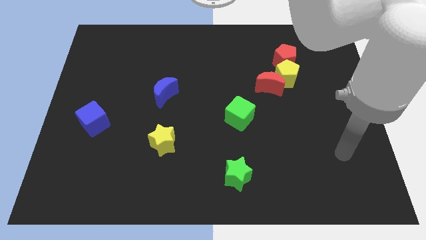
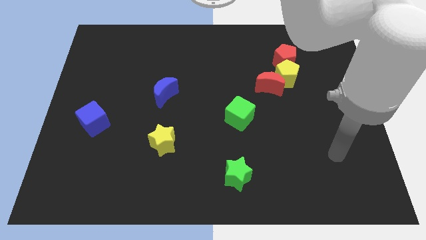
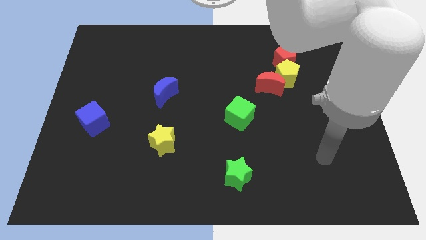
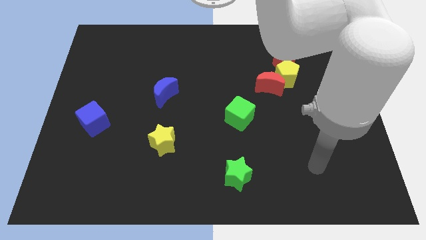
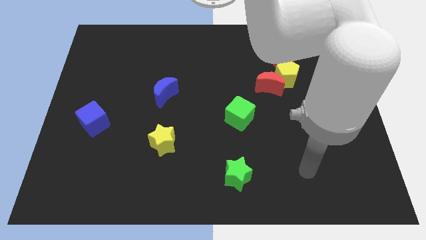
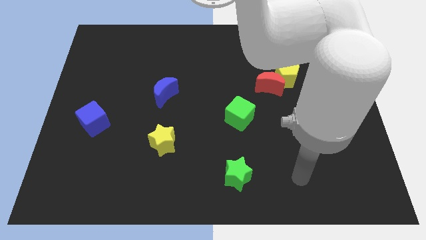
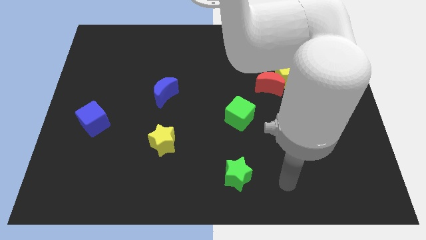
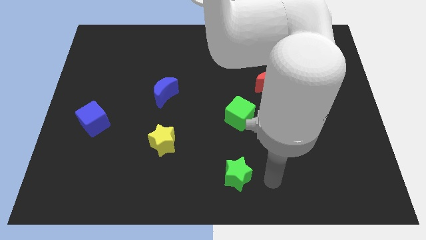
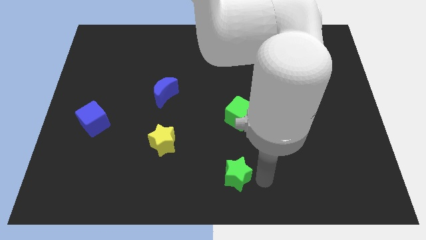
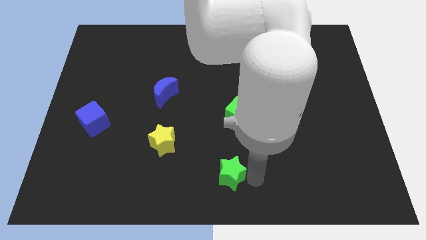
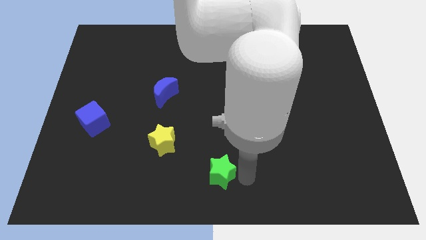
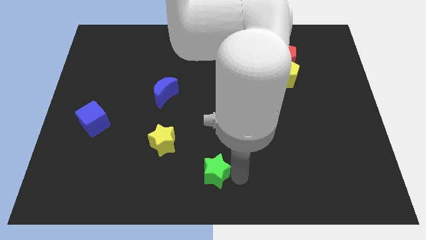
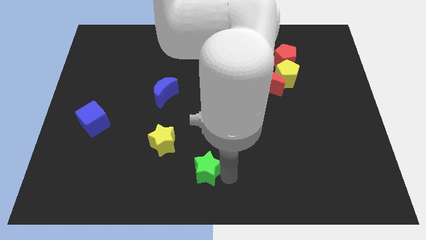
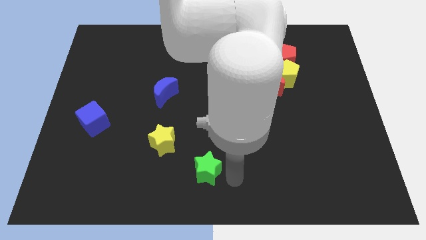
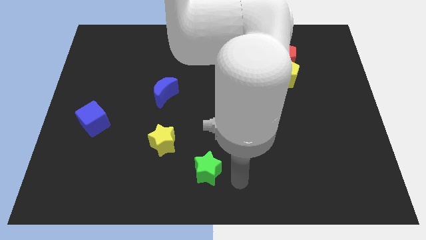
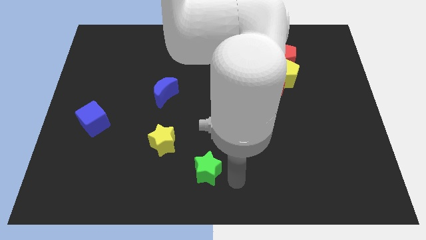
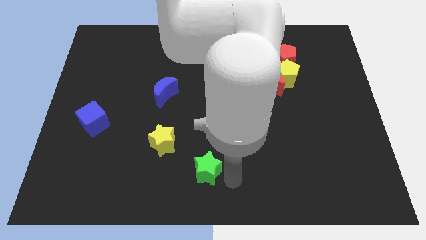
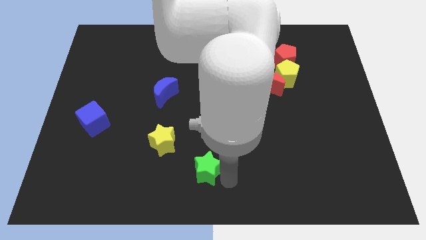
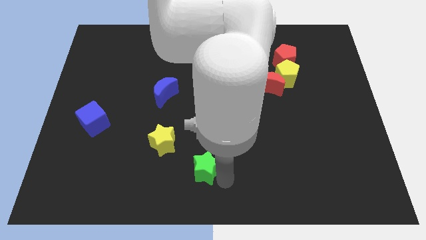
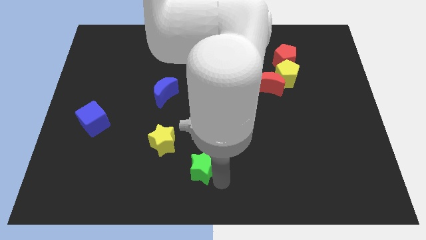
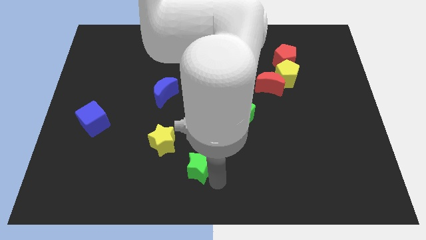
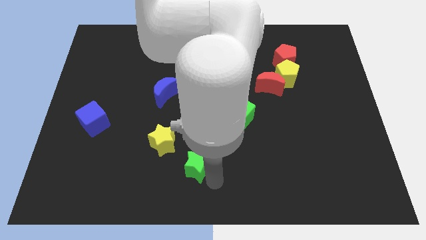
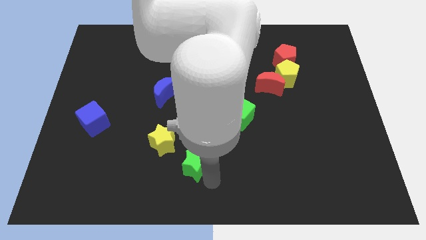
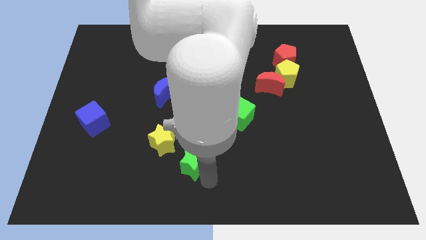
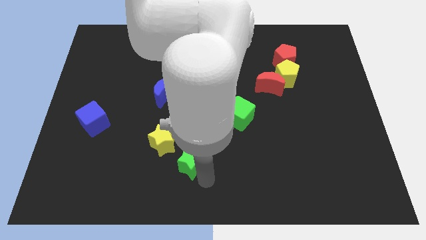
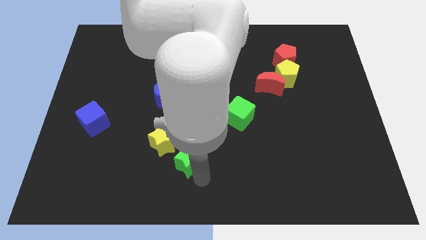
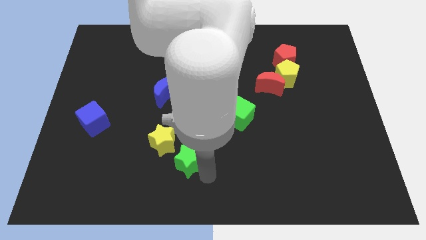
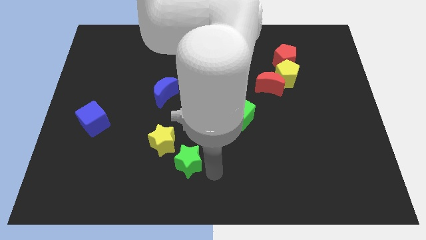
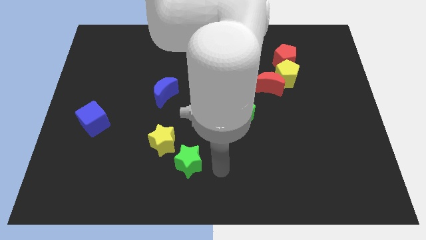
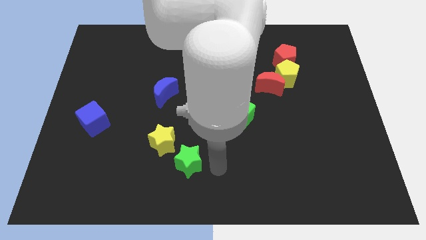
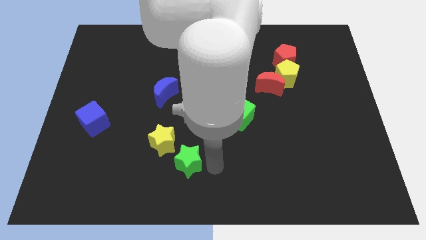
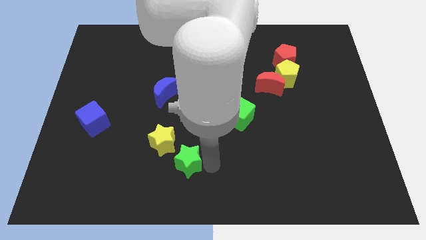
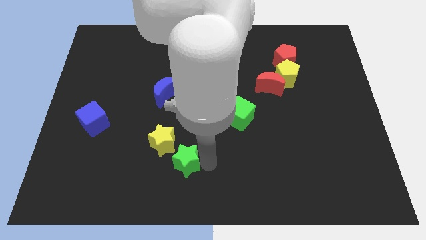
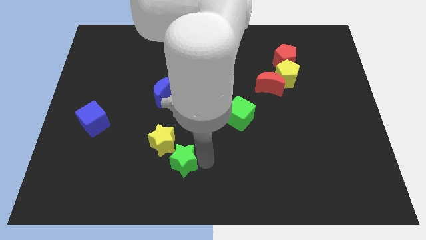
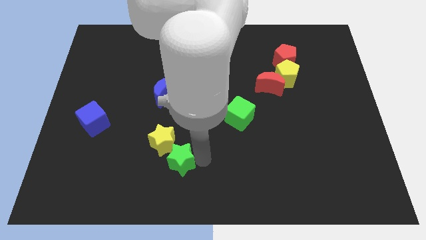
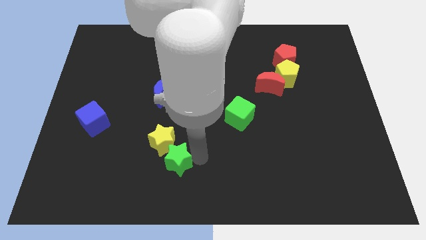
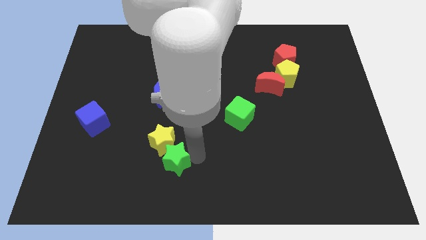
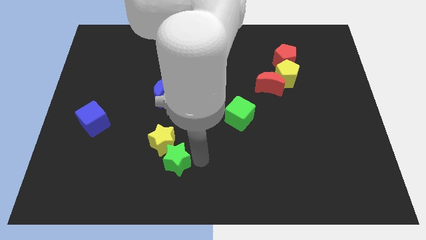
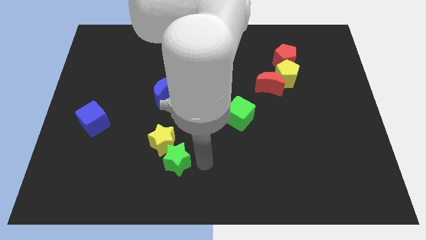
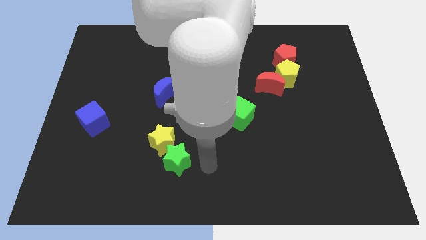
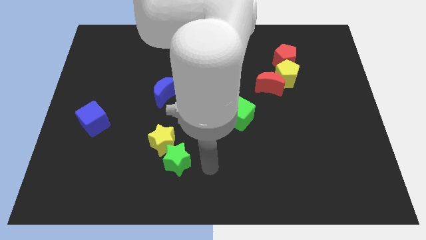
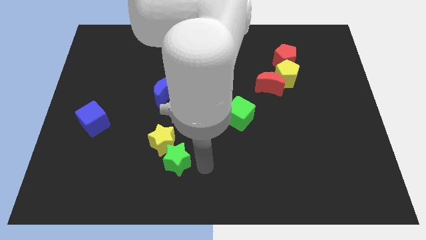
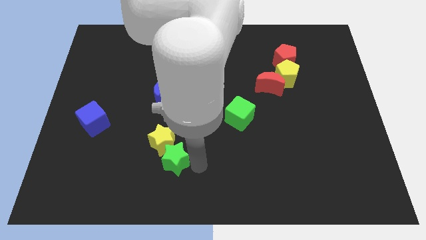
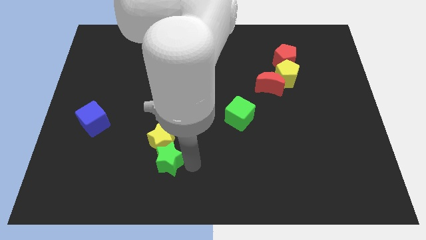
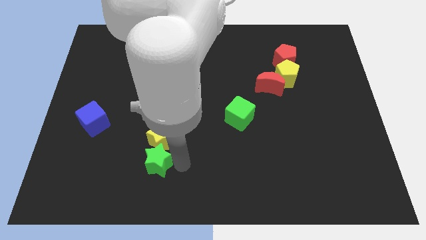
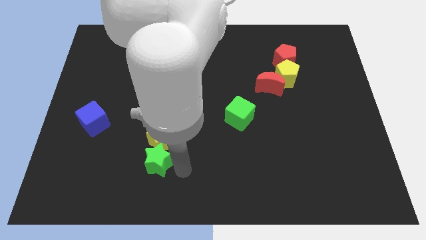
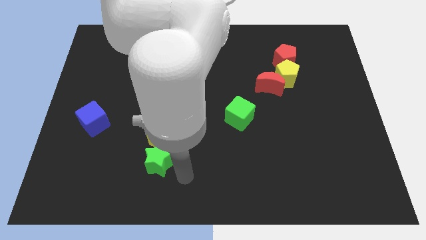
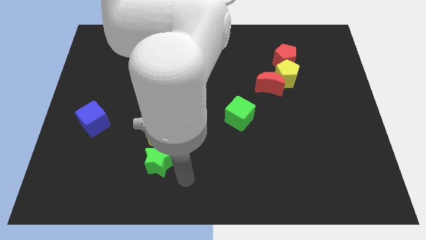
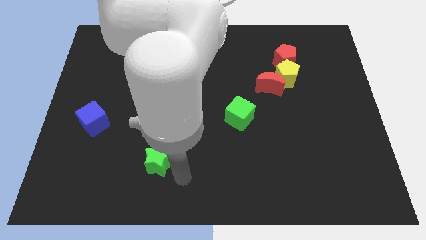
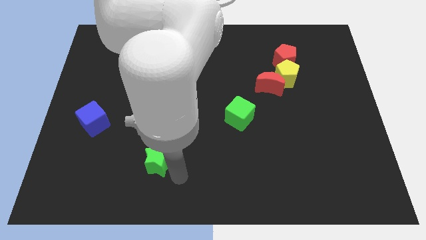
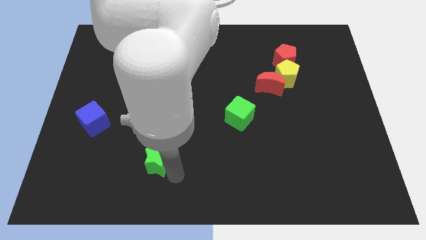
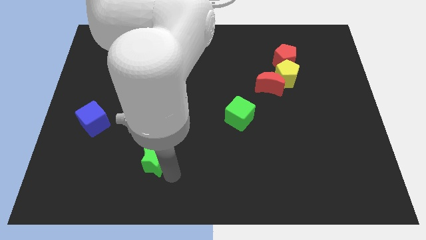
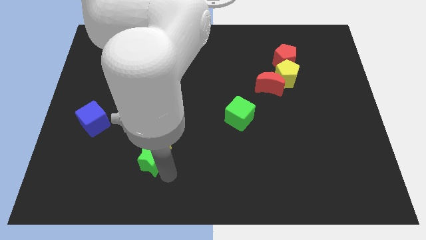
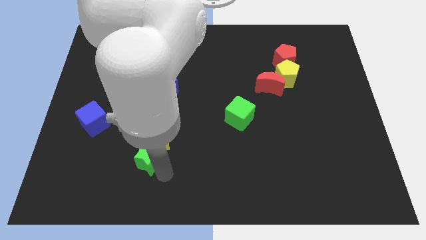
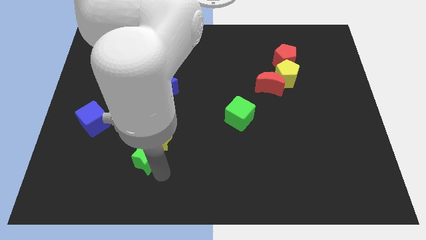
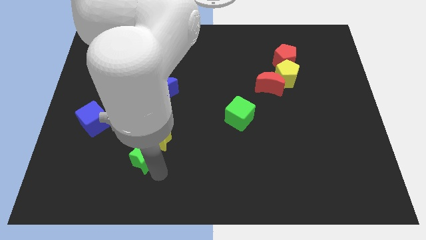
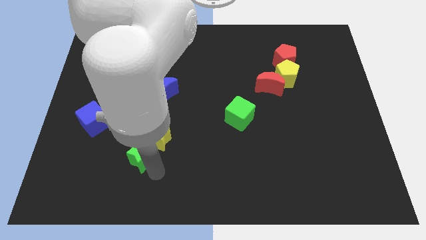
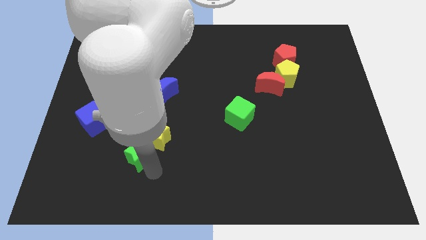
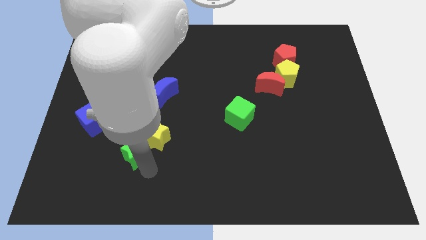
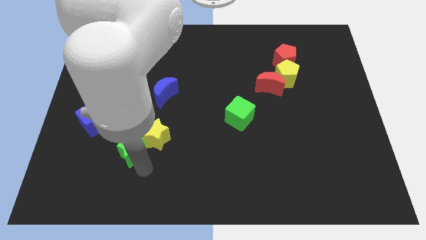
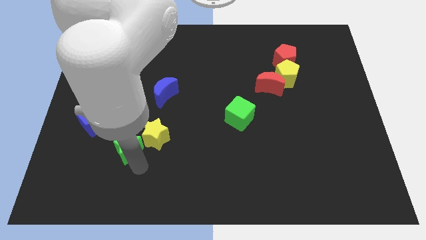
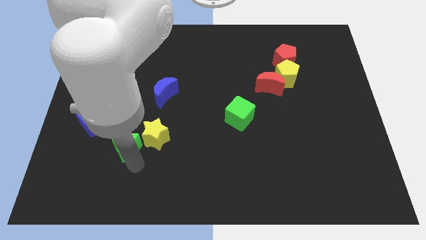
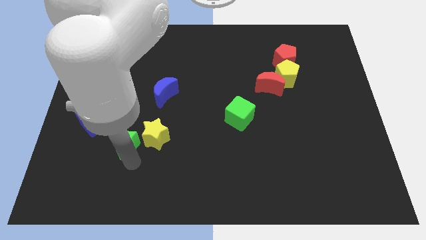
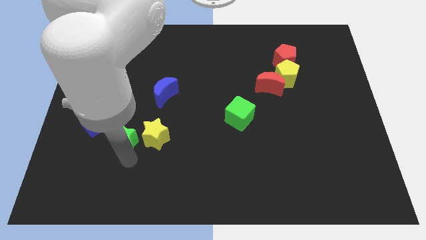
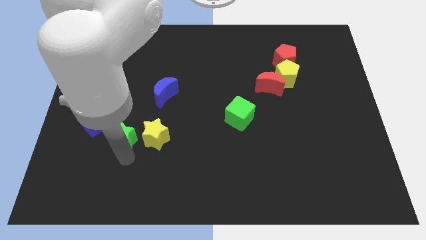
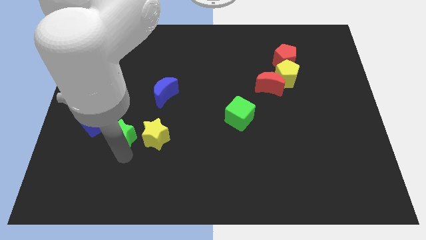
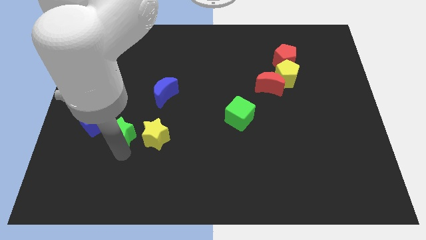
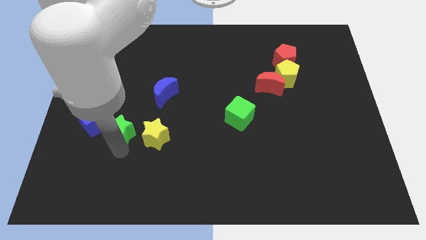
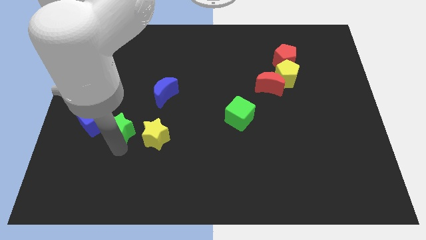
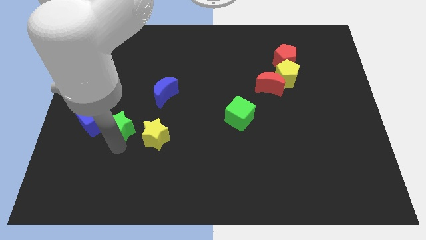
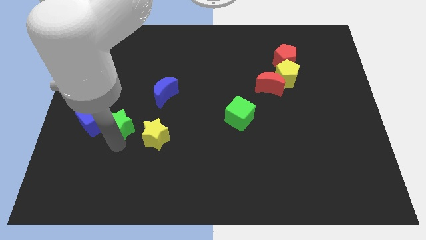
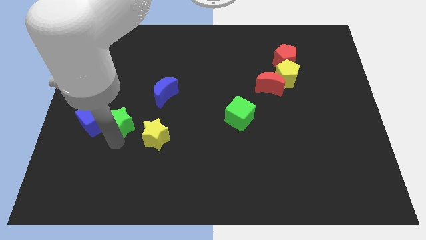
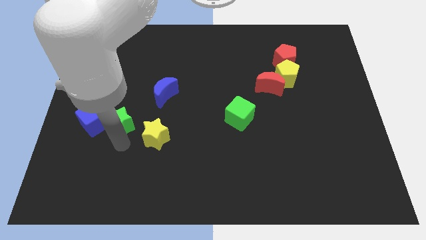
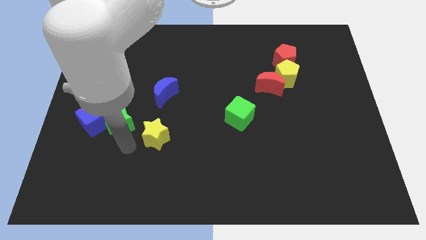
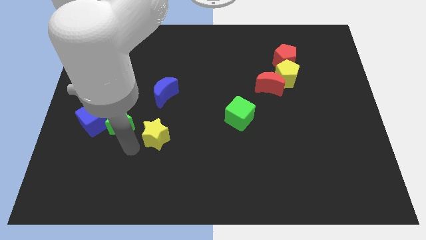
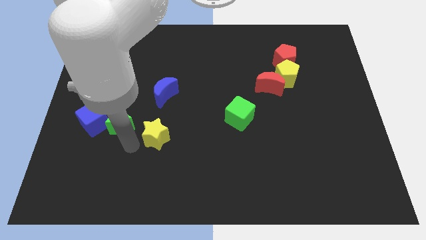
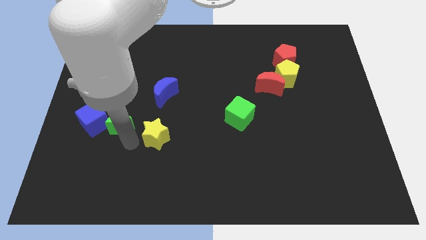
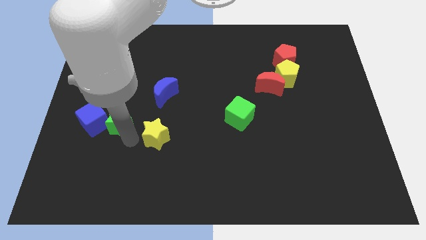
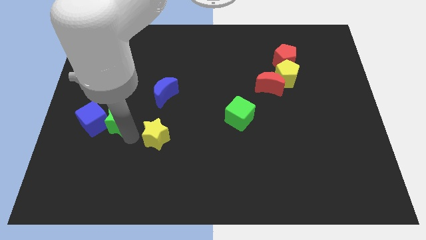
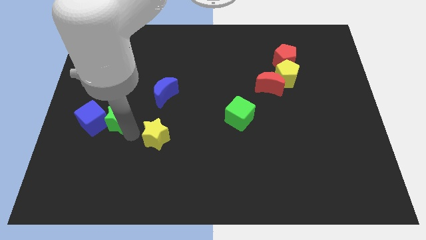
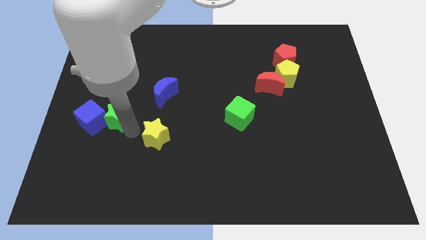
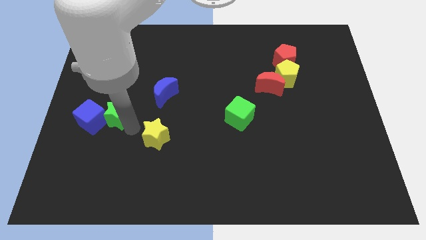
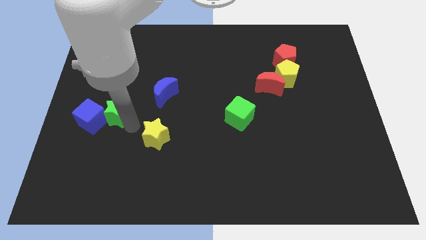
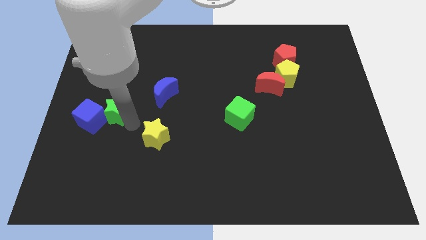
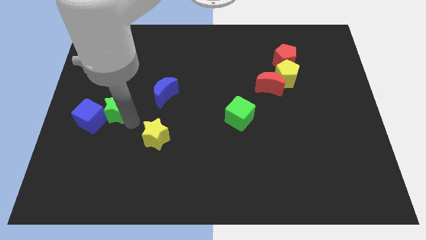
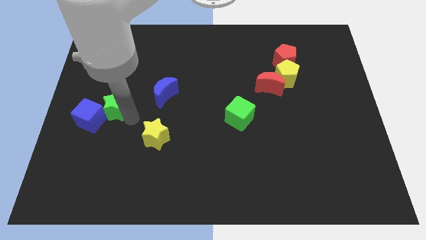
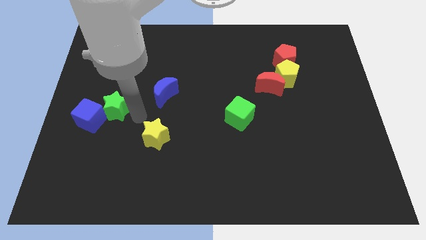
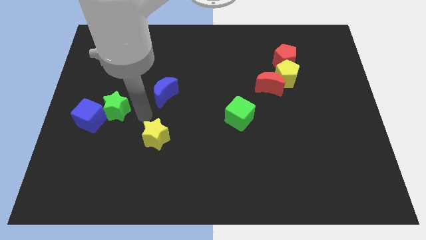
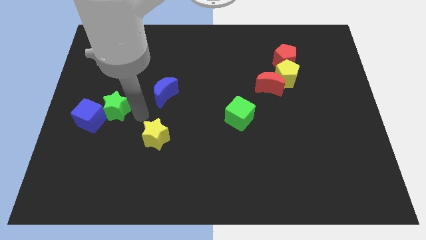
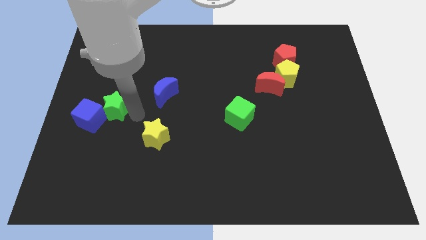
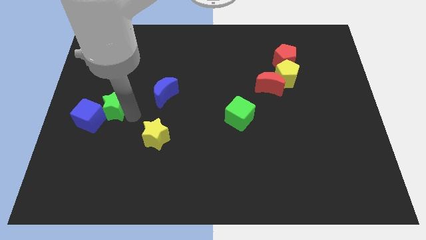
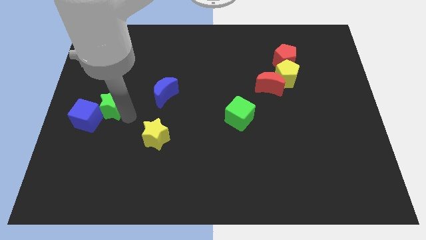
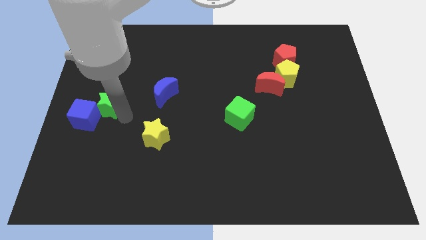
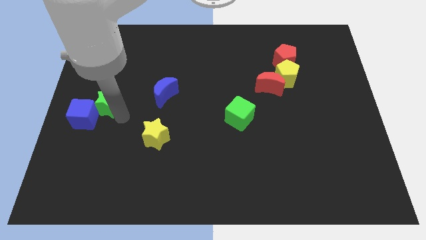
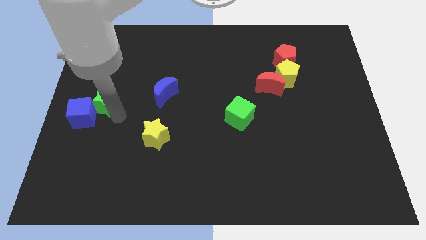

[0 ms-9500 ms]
slide the green star to the left side of the board
